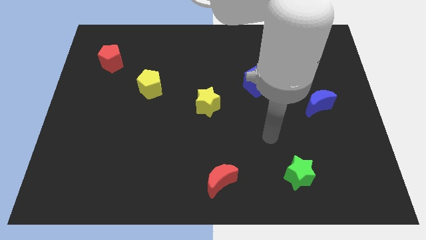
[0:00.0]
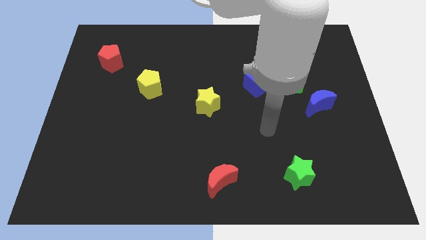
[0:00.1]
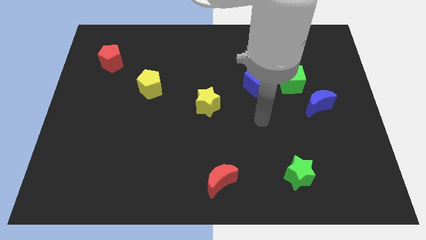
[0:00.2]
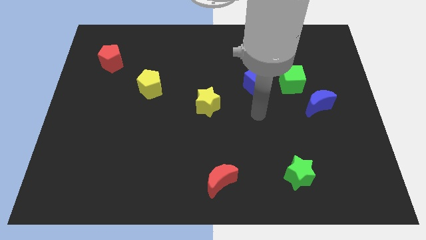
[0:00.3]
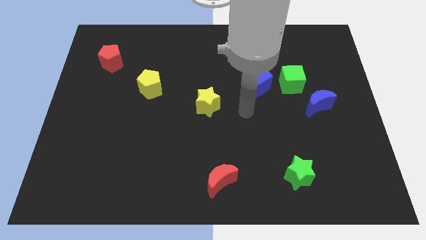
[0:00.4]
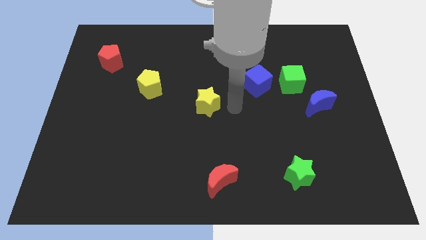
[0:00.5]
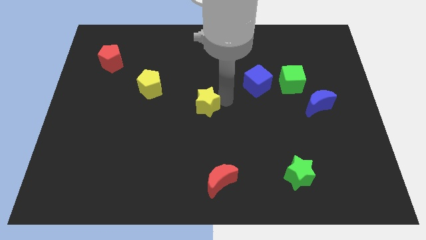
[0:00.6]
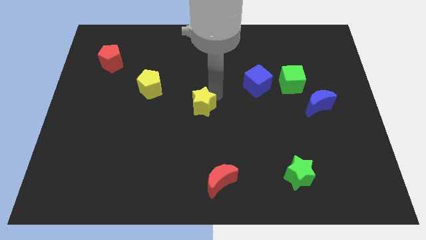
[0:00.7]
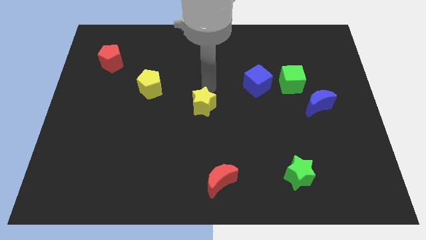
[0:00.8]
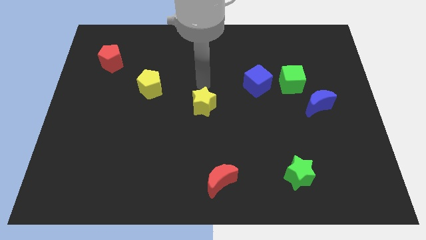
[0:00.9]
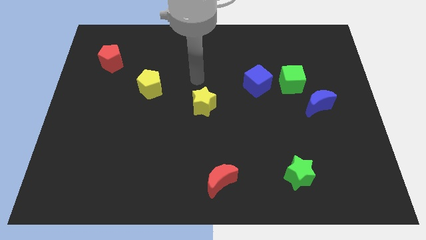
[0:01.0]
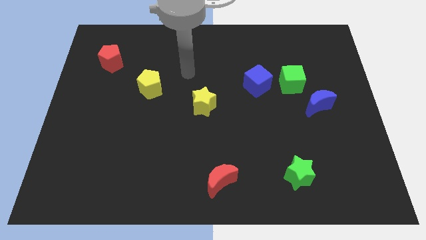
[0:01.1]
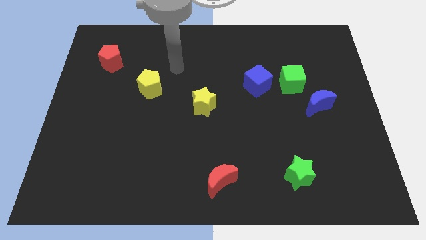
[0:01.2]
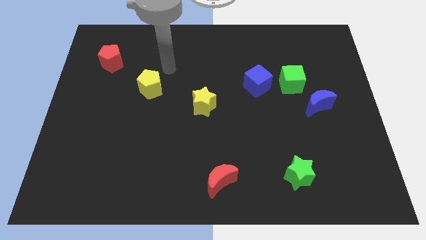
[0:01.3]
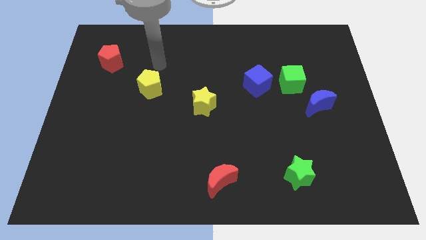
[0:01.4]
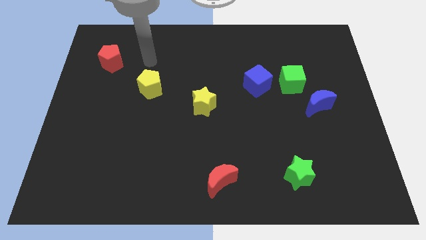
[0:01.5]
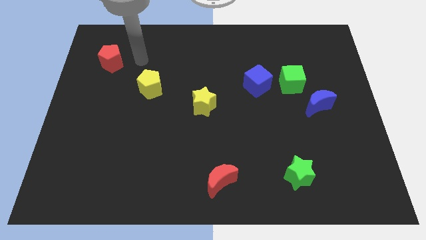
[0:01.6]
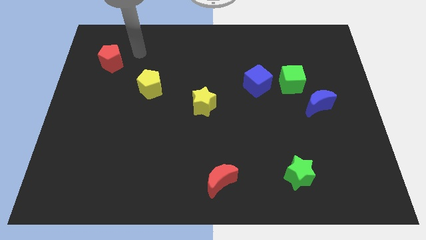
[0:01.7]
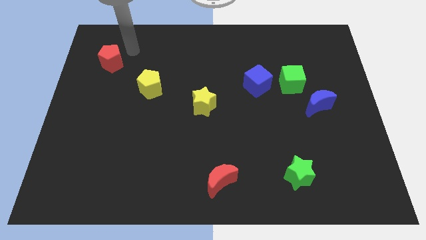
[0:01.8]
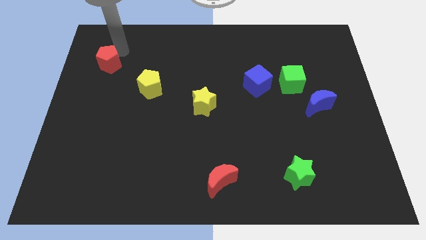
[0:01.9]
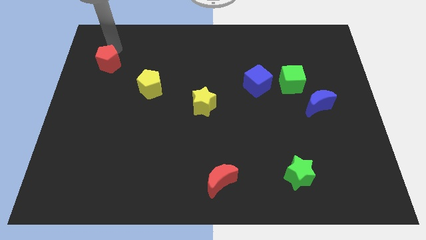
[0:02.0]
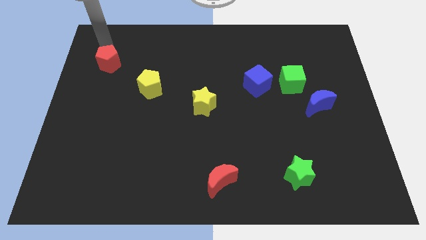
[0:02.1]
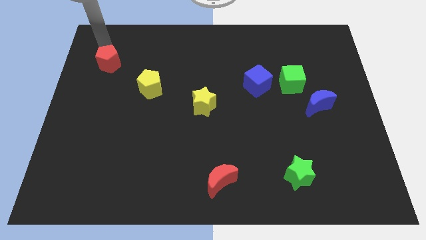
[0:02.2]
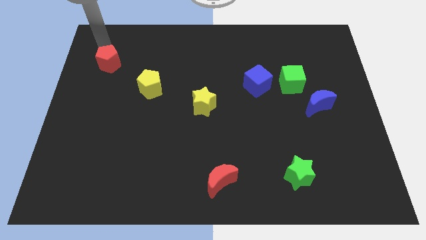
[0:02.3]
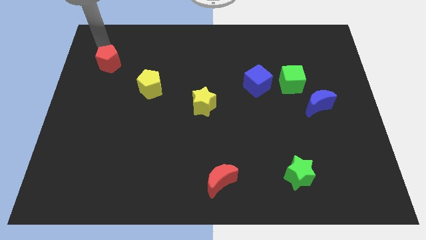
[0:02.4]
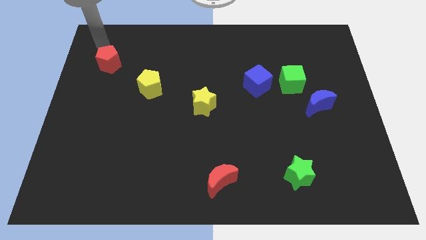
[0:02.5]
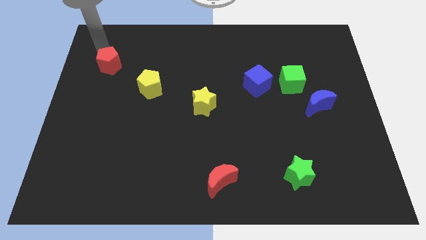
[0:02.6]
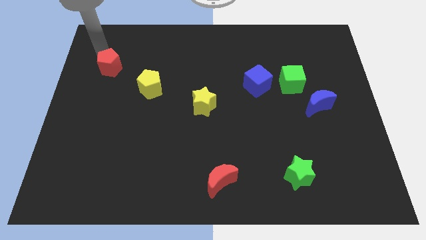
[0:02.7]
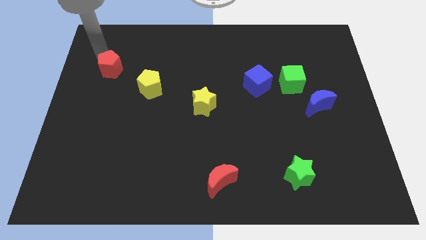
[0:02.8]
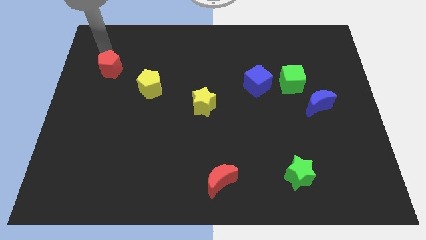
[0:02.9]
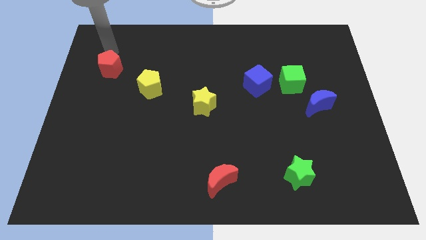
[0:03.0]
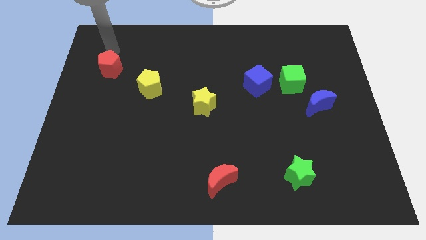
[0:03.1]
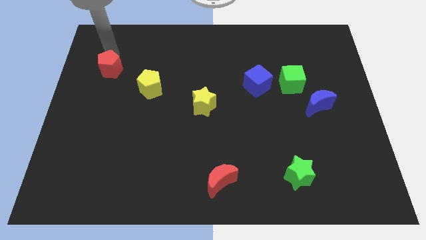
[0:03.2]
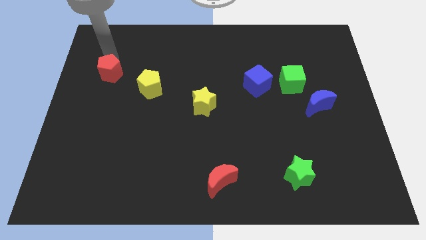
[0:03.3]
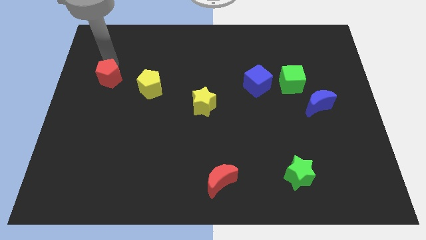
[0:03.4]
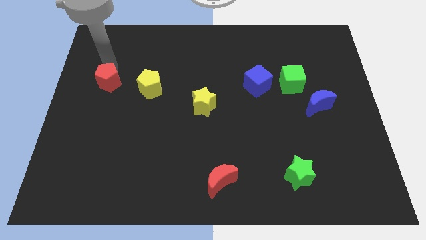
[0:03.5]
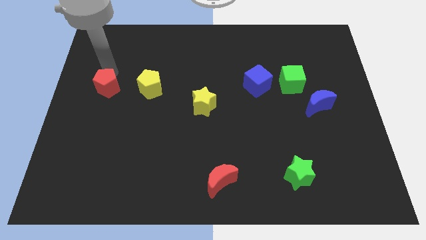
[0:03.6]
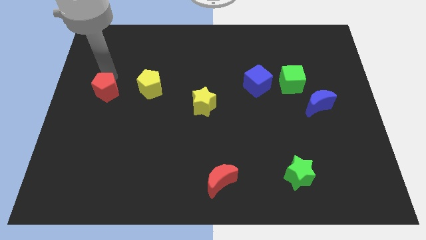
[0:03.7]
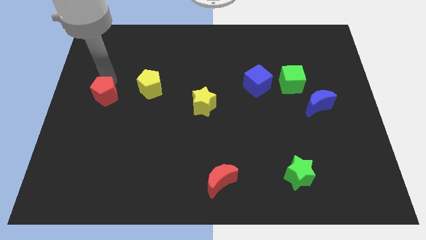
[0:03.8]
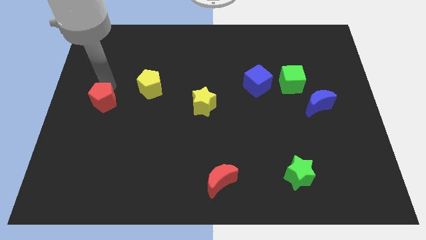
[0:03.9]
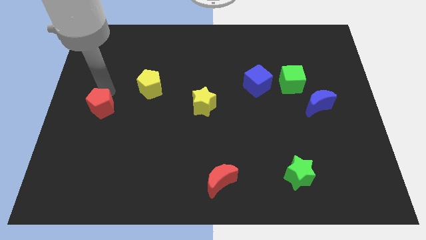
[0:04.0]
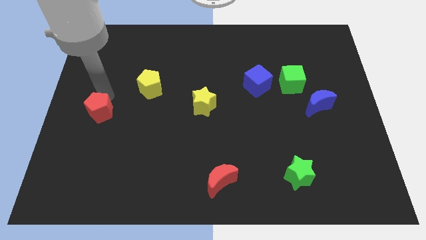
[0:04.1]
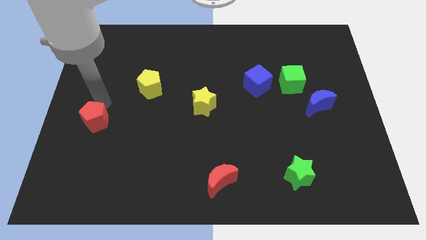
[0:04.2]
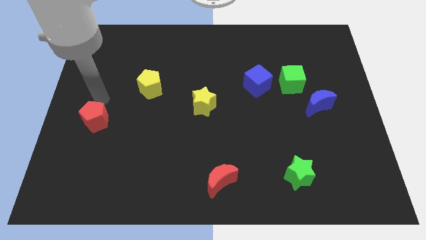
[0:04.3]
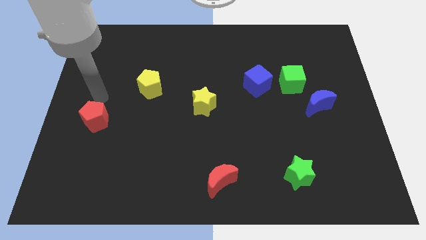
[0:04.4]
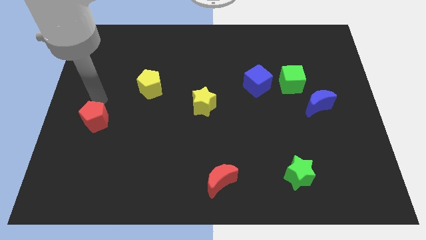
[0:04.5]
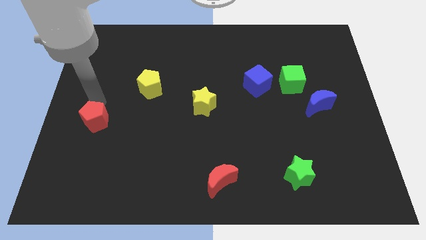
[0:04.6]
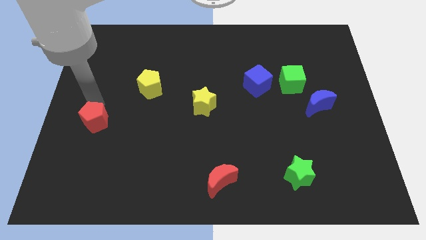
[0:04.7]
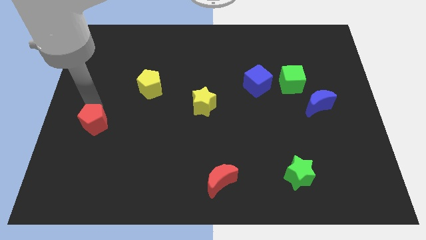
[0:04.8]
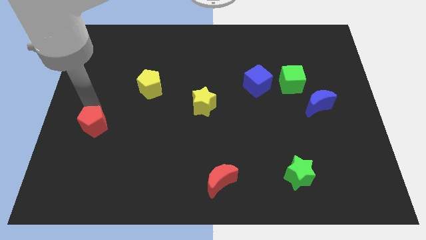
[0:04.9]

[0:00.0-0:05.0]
move the red pentagon down

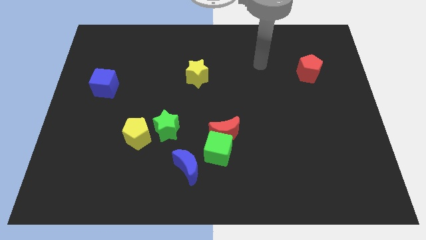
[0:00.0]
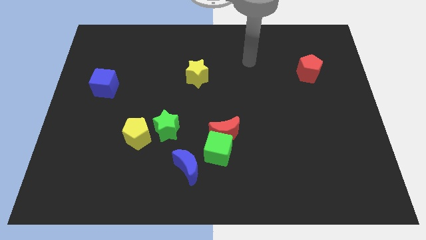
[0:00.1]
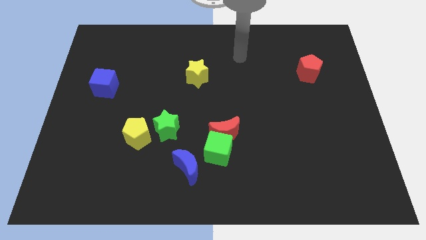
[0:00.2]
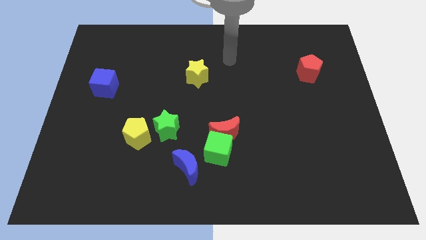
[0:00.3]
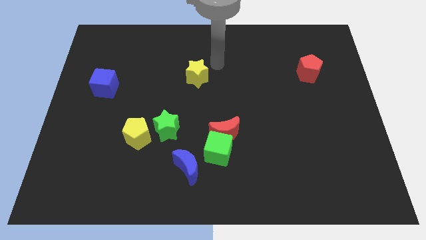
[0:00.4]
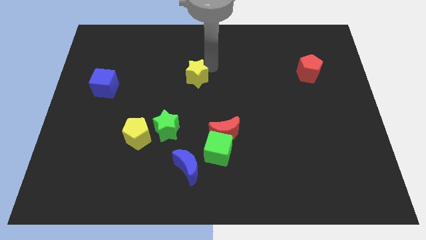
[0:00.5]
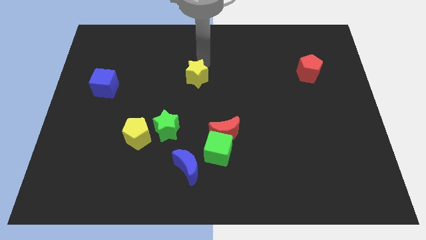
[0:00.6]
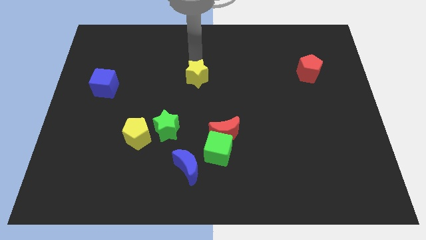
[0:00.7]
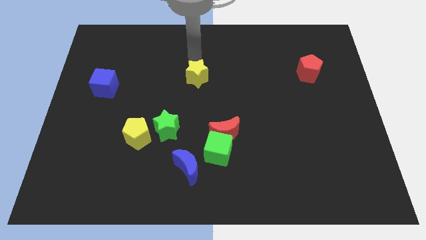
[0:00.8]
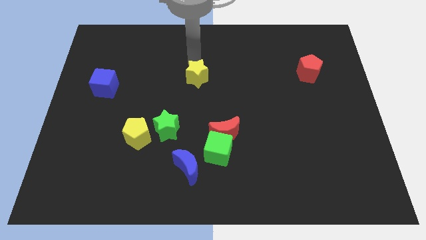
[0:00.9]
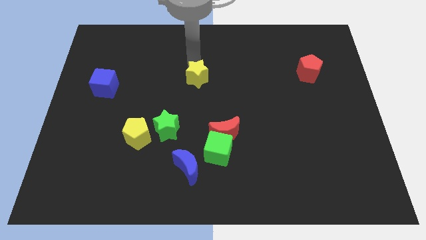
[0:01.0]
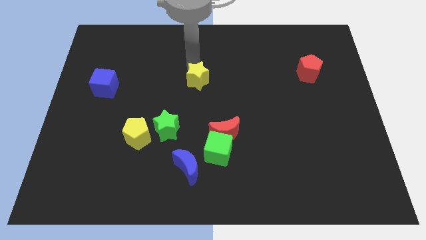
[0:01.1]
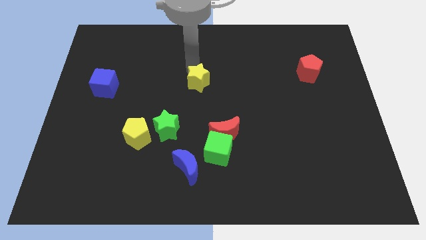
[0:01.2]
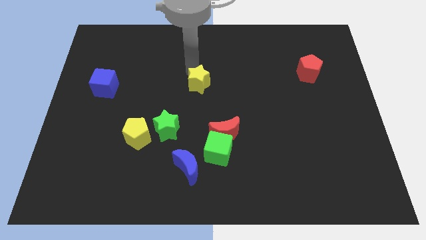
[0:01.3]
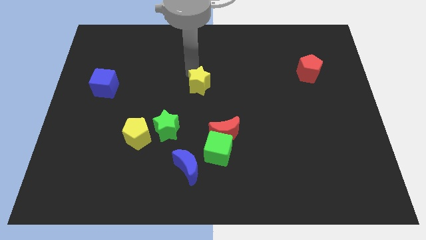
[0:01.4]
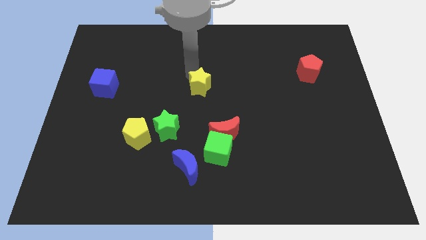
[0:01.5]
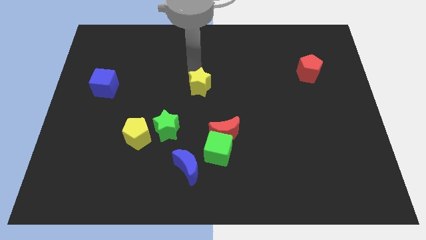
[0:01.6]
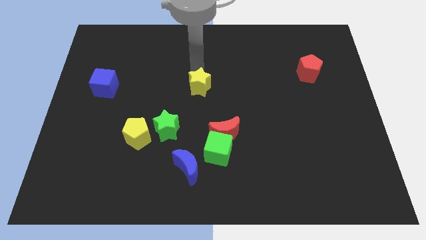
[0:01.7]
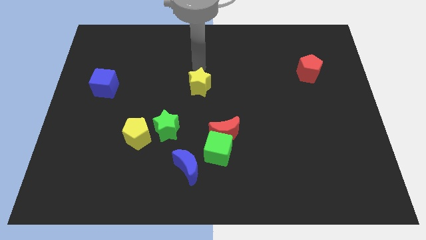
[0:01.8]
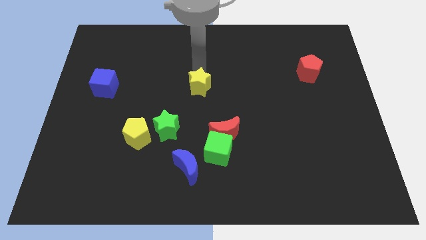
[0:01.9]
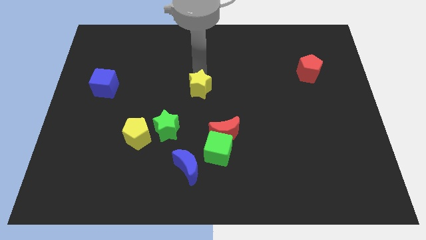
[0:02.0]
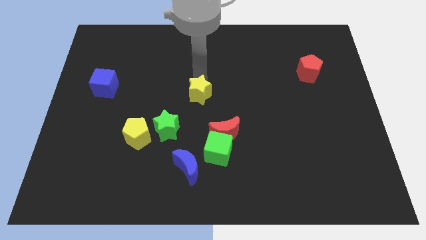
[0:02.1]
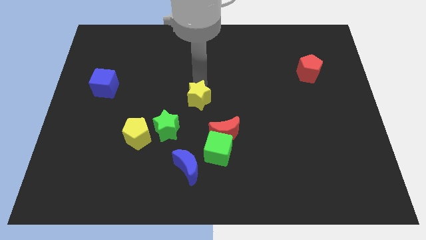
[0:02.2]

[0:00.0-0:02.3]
slightly move the yellow star down

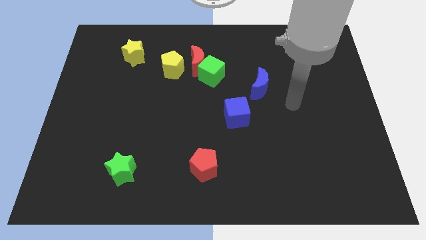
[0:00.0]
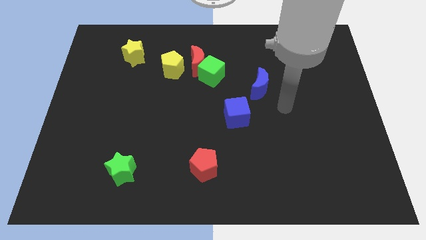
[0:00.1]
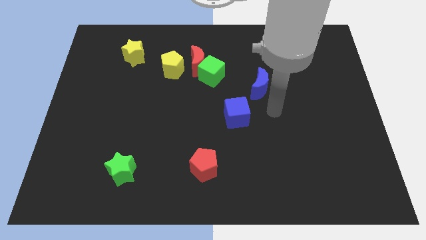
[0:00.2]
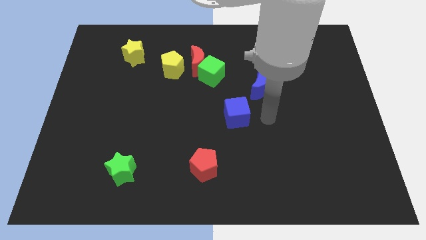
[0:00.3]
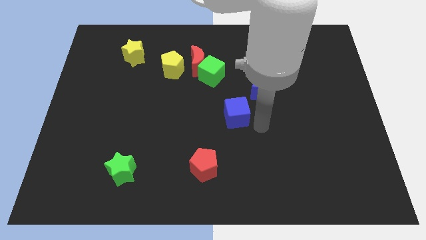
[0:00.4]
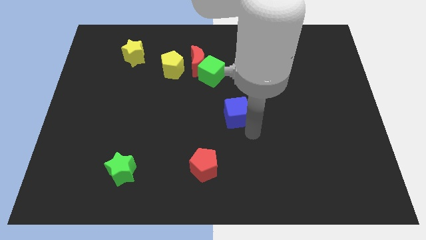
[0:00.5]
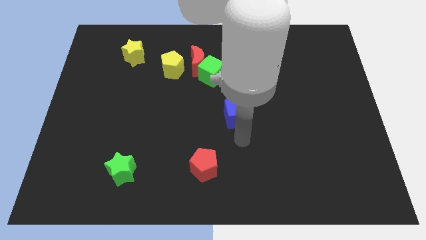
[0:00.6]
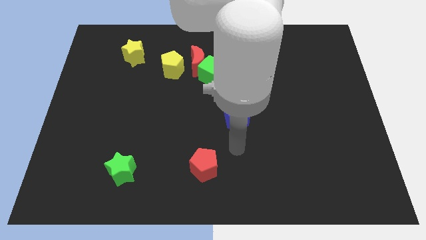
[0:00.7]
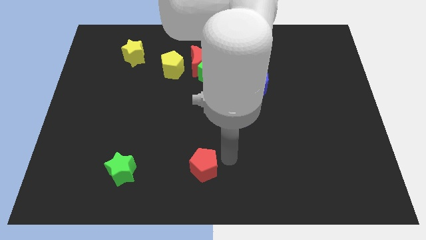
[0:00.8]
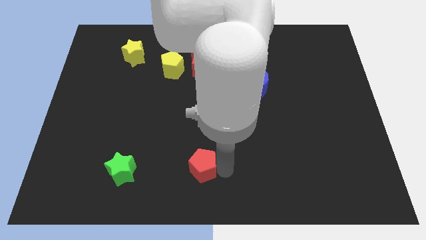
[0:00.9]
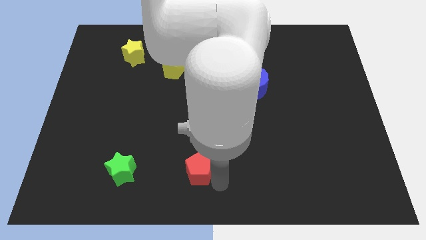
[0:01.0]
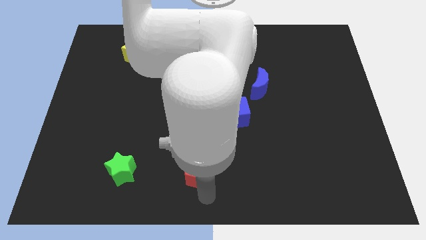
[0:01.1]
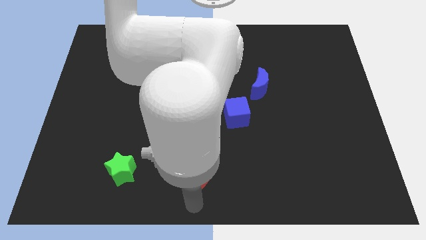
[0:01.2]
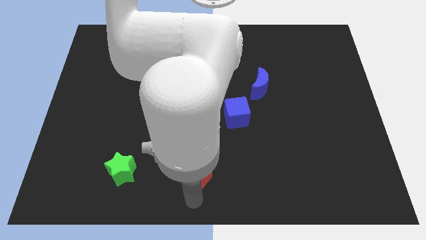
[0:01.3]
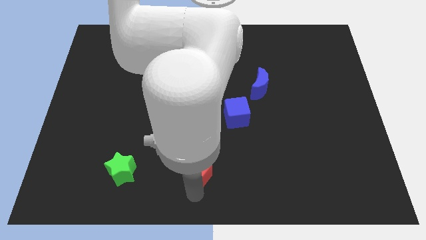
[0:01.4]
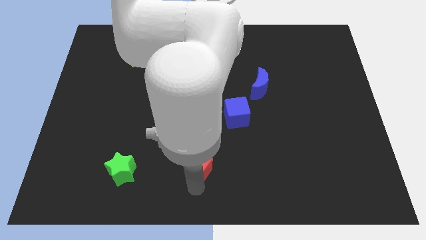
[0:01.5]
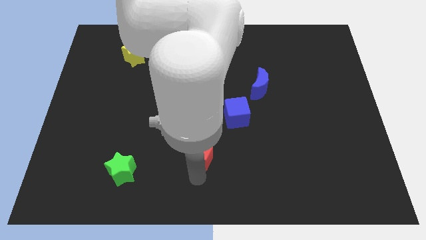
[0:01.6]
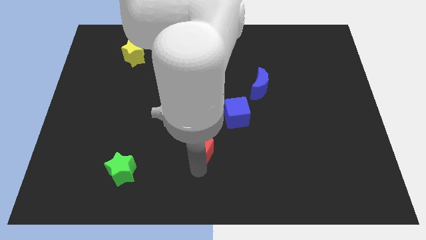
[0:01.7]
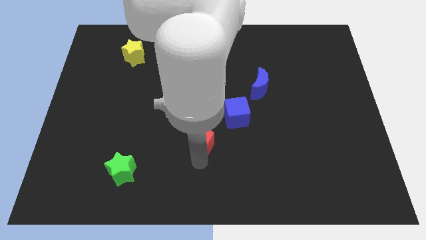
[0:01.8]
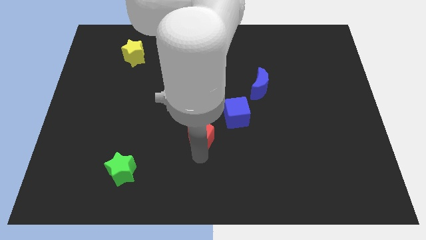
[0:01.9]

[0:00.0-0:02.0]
slide the red pentagon up slightly
